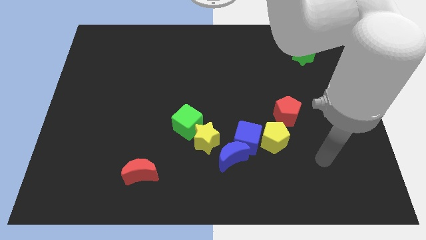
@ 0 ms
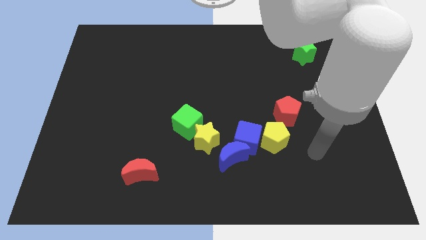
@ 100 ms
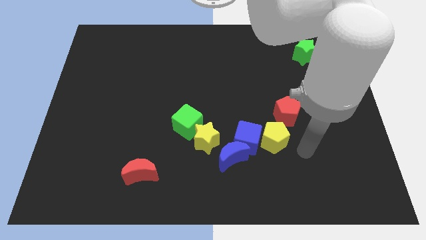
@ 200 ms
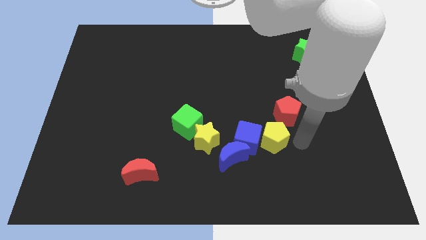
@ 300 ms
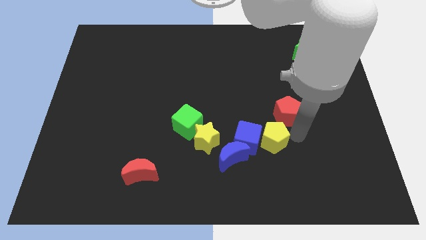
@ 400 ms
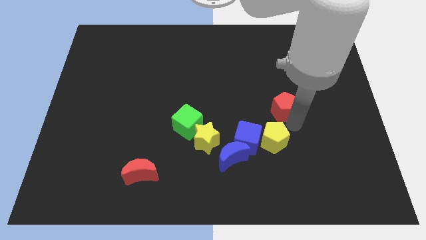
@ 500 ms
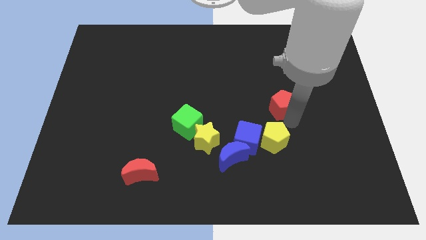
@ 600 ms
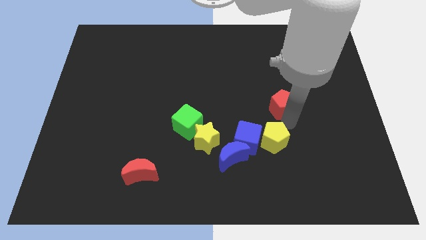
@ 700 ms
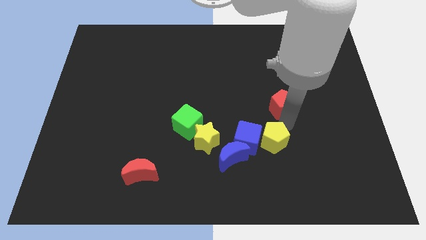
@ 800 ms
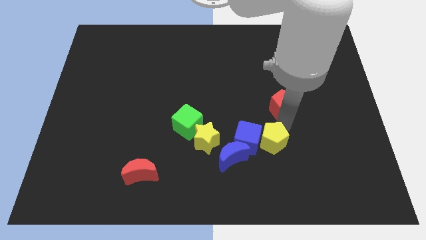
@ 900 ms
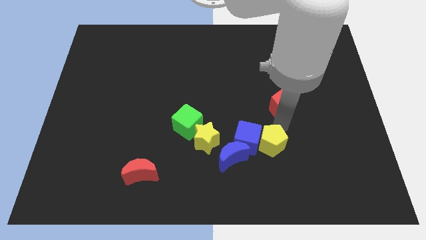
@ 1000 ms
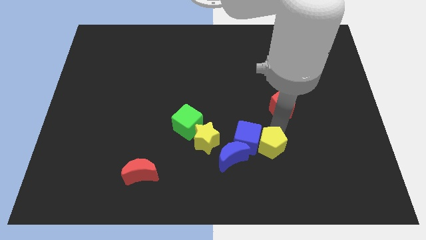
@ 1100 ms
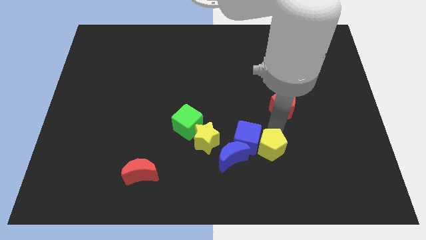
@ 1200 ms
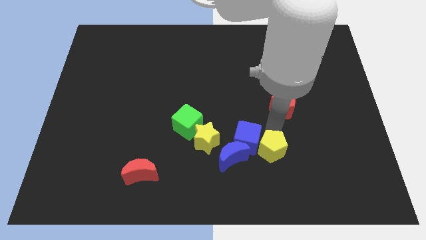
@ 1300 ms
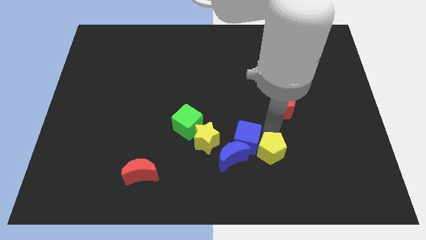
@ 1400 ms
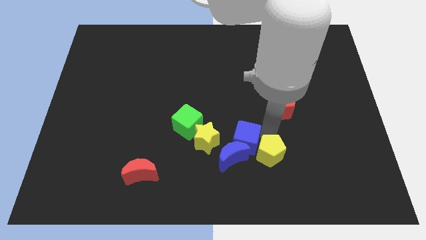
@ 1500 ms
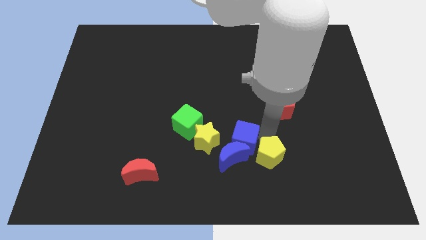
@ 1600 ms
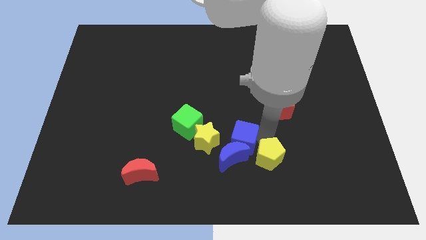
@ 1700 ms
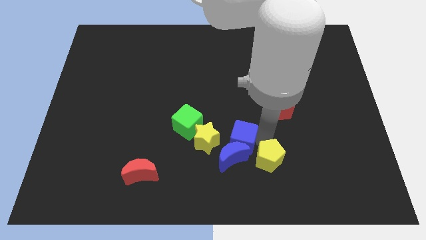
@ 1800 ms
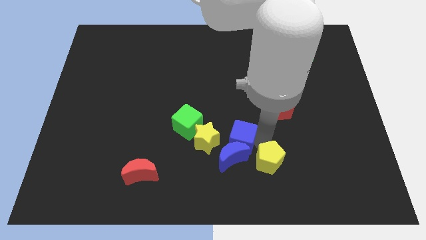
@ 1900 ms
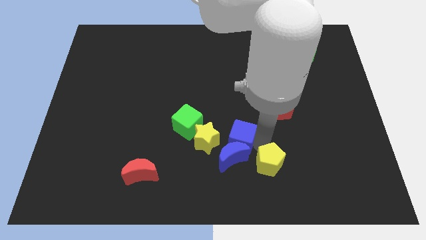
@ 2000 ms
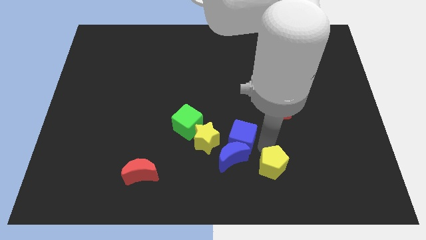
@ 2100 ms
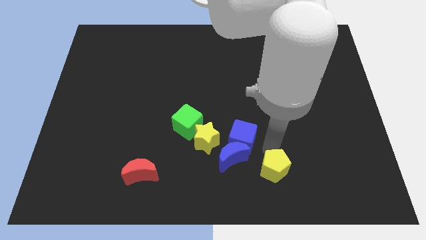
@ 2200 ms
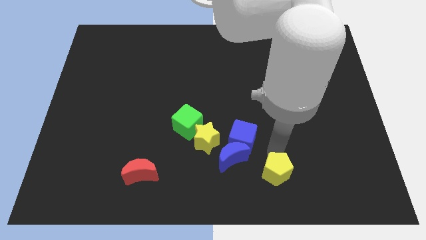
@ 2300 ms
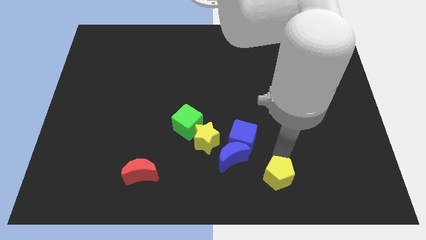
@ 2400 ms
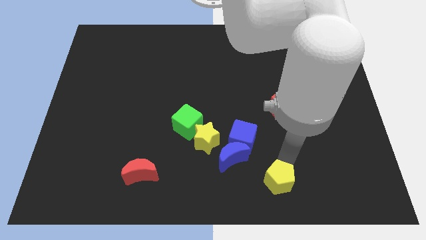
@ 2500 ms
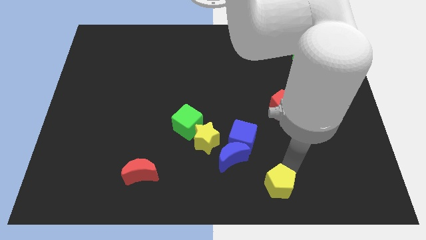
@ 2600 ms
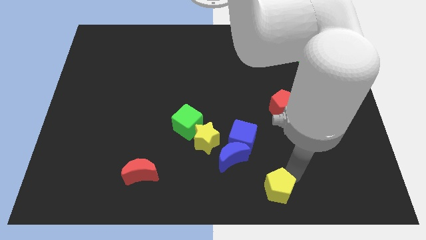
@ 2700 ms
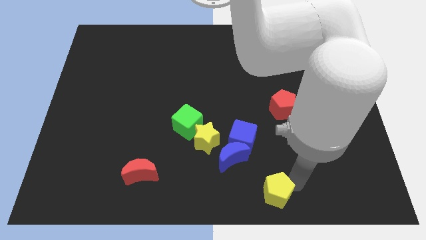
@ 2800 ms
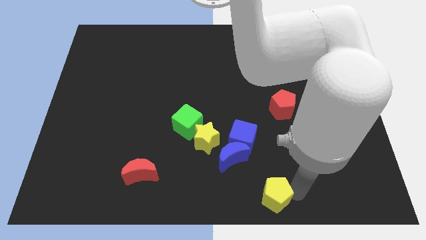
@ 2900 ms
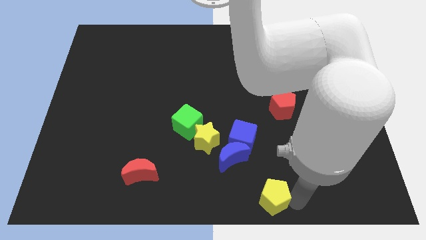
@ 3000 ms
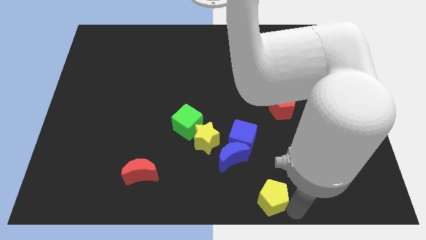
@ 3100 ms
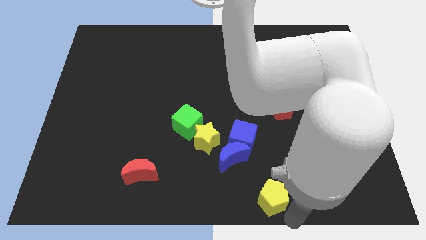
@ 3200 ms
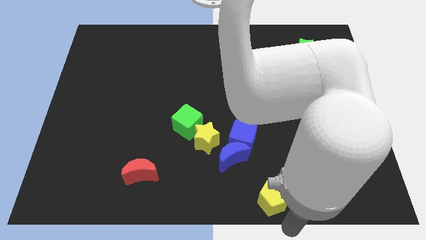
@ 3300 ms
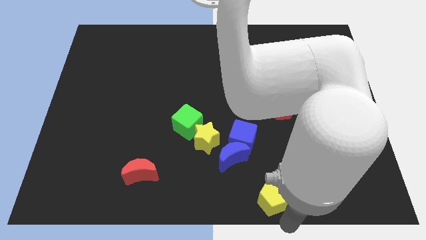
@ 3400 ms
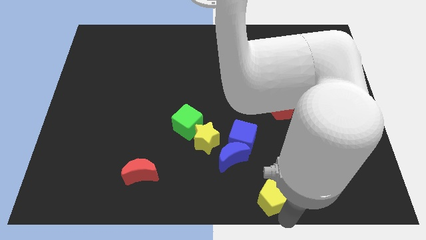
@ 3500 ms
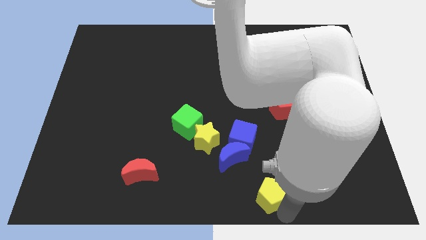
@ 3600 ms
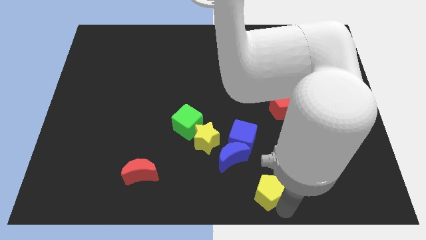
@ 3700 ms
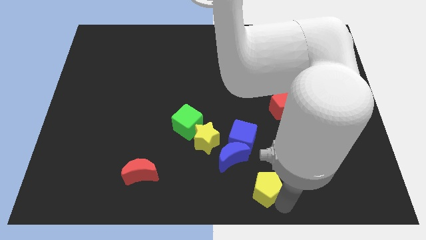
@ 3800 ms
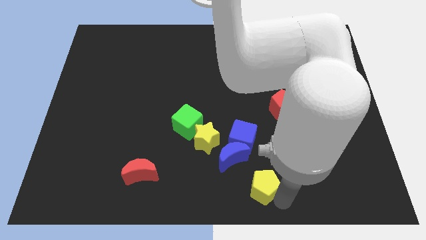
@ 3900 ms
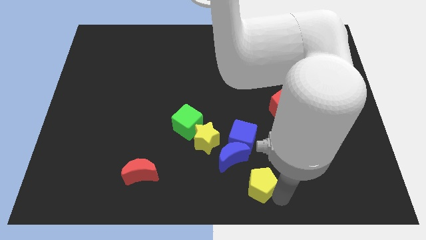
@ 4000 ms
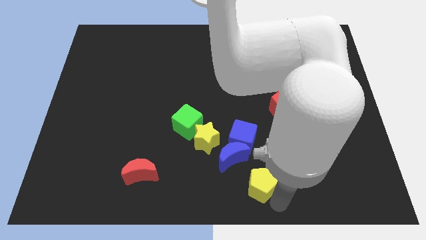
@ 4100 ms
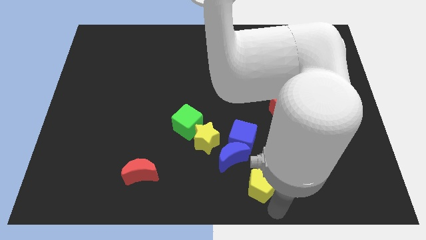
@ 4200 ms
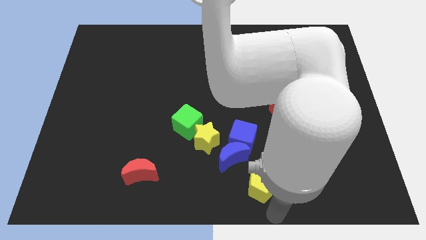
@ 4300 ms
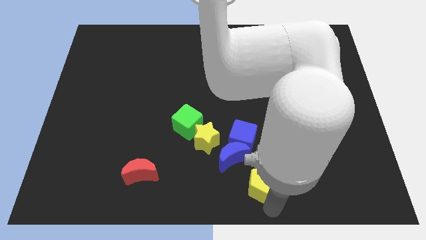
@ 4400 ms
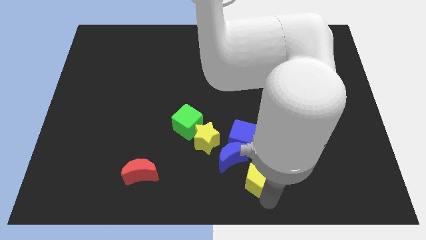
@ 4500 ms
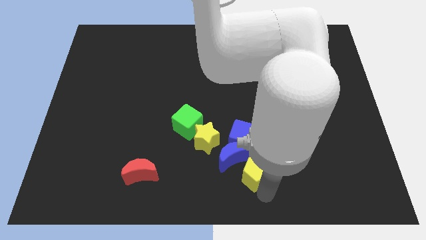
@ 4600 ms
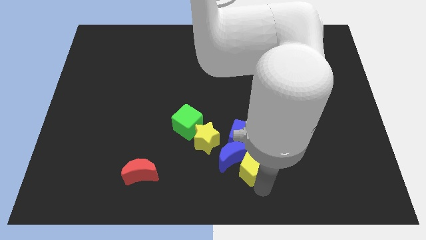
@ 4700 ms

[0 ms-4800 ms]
push the yellow pentagon towards the blue moon

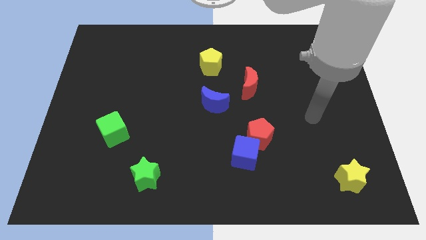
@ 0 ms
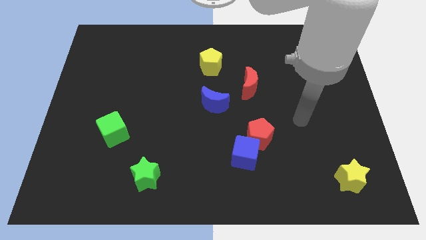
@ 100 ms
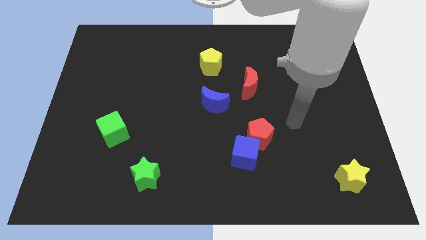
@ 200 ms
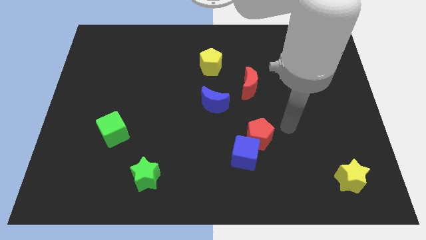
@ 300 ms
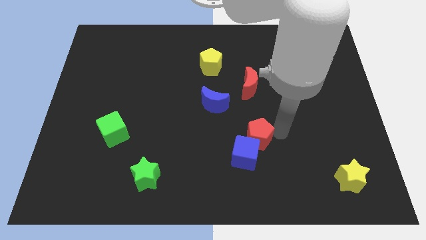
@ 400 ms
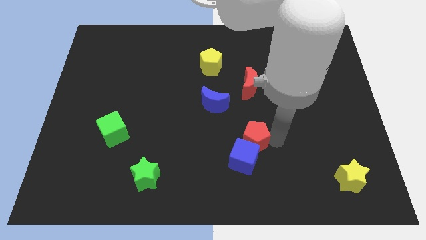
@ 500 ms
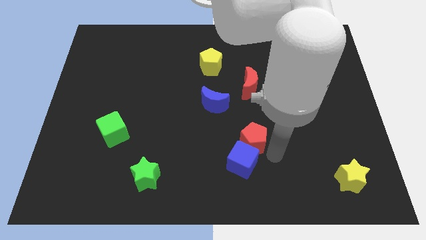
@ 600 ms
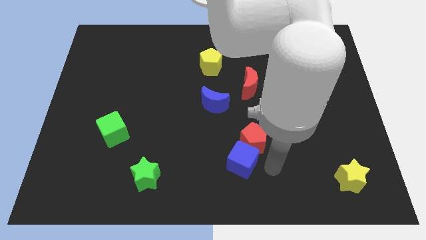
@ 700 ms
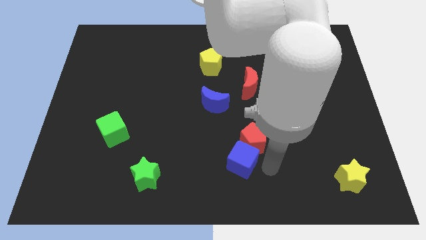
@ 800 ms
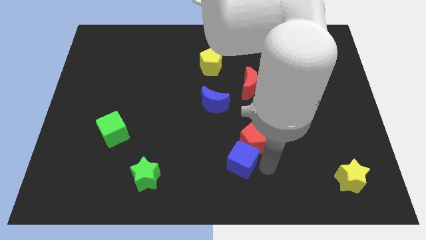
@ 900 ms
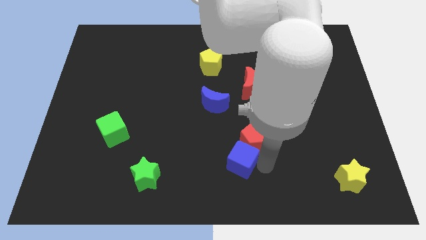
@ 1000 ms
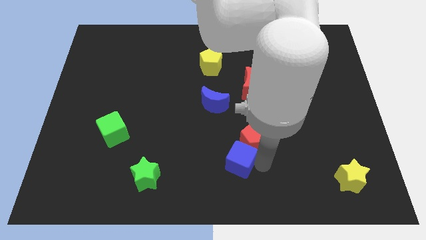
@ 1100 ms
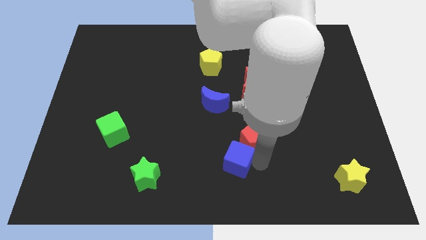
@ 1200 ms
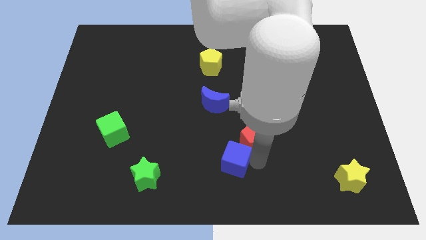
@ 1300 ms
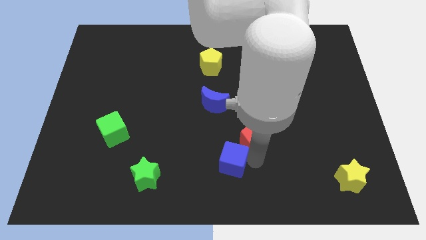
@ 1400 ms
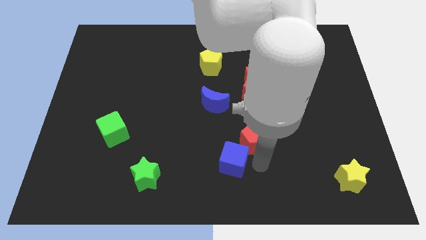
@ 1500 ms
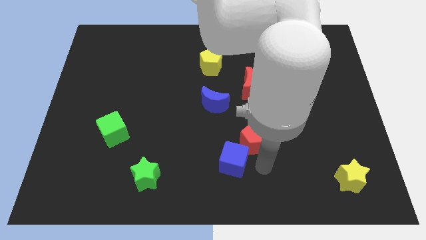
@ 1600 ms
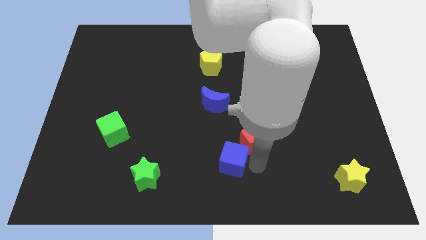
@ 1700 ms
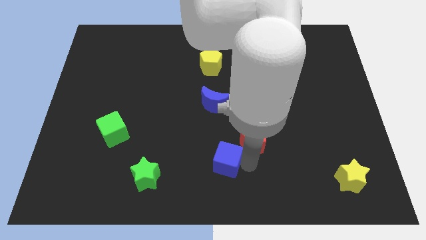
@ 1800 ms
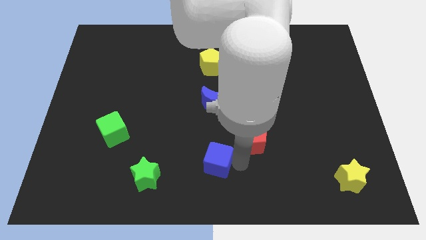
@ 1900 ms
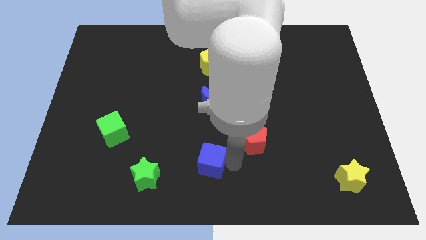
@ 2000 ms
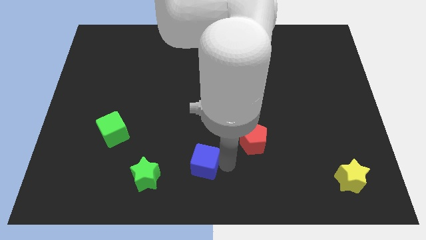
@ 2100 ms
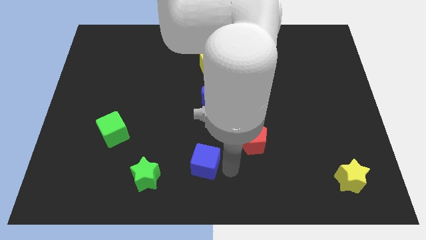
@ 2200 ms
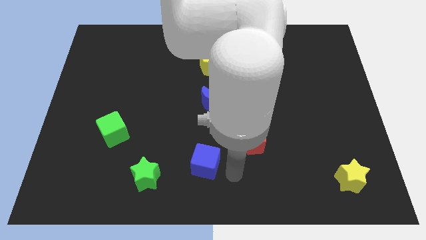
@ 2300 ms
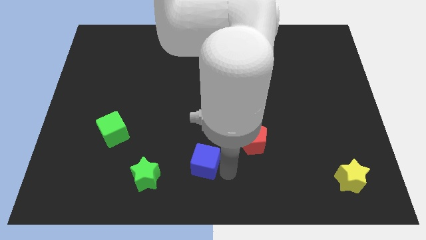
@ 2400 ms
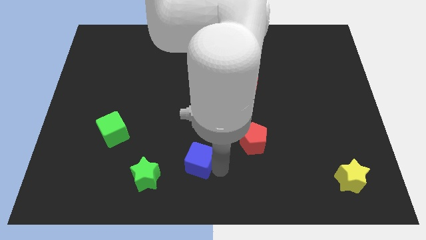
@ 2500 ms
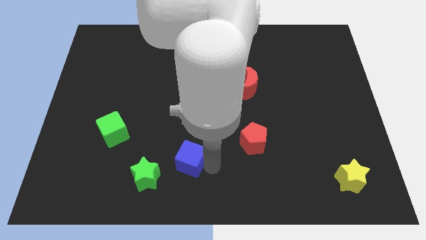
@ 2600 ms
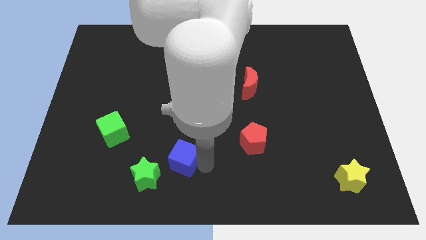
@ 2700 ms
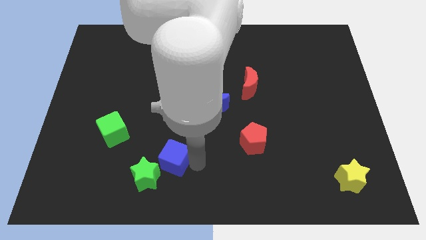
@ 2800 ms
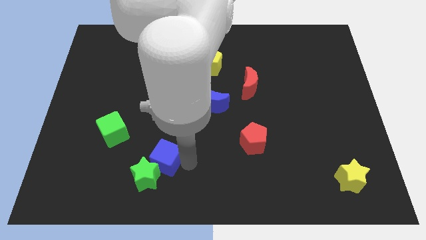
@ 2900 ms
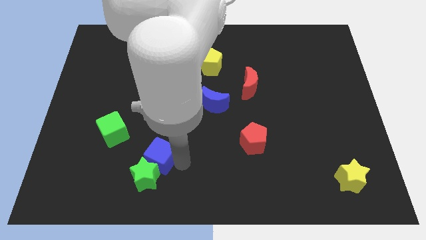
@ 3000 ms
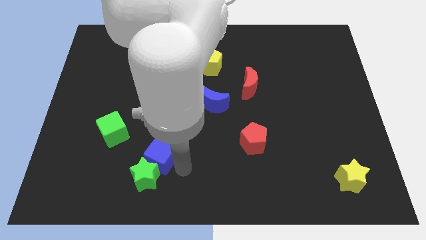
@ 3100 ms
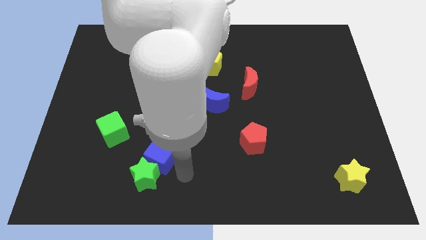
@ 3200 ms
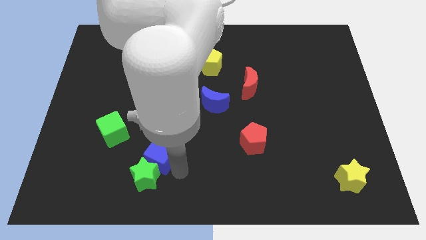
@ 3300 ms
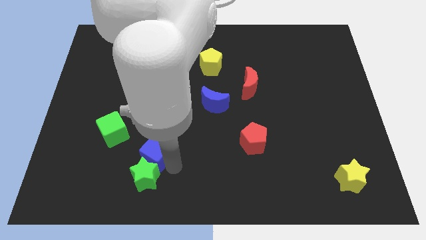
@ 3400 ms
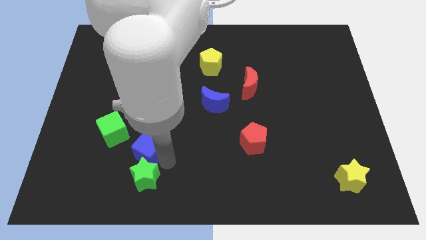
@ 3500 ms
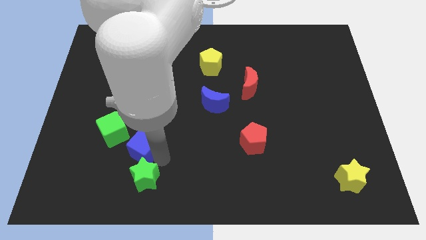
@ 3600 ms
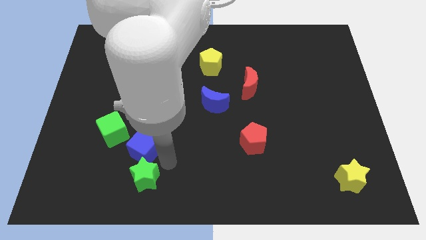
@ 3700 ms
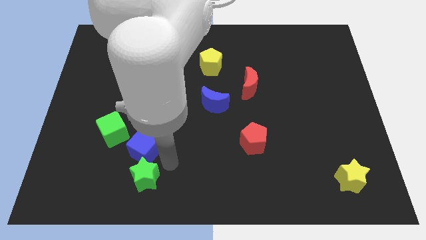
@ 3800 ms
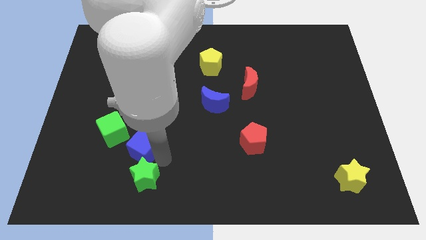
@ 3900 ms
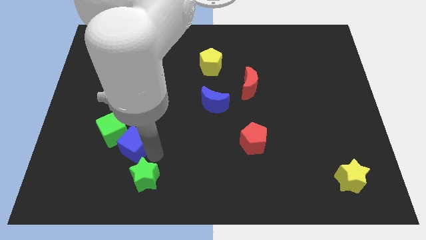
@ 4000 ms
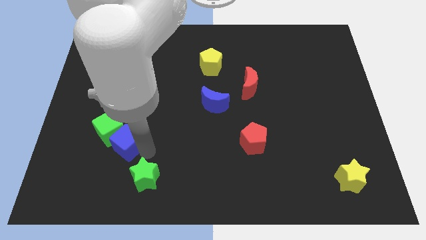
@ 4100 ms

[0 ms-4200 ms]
move the blue cube next to the green cube
